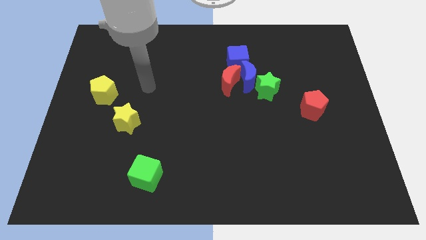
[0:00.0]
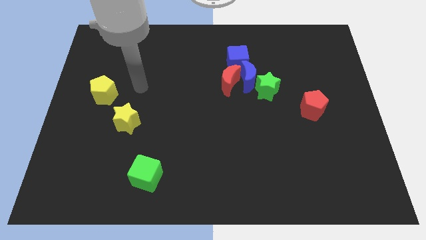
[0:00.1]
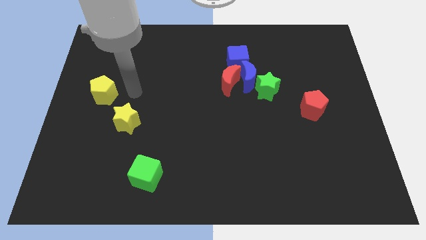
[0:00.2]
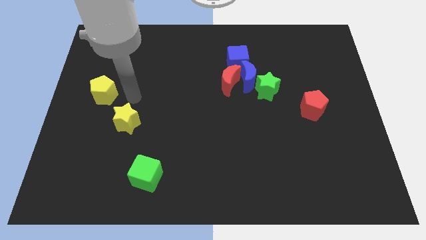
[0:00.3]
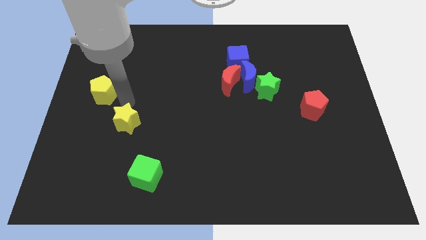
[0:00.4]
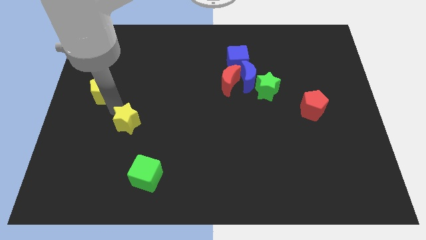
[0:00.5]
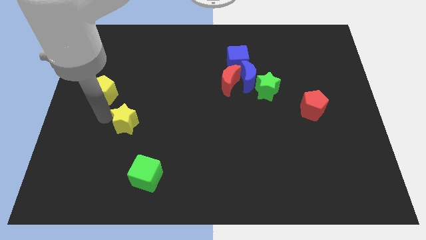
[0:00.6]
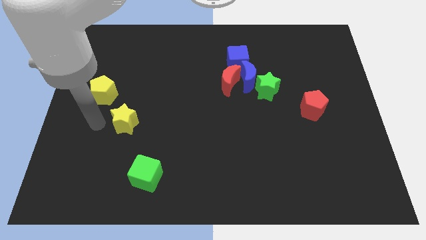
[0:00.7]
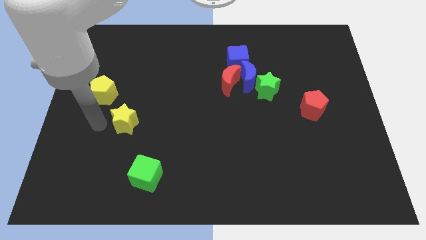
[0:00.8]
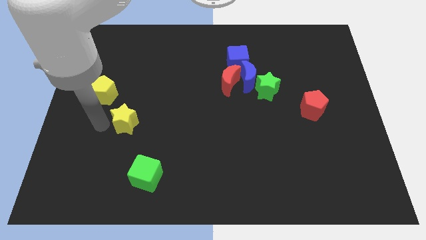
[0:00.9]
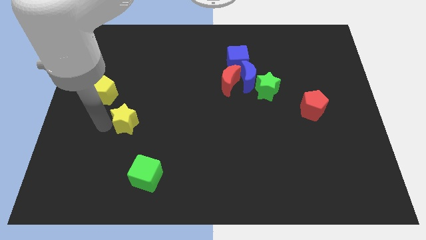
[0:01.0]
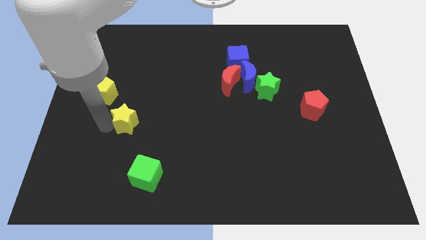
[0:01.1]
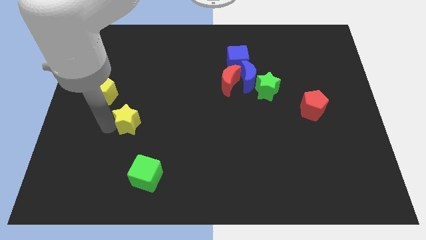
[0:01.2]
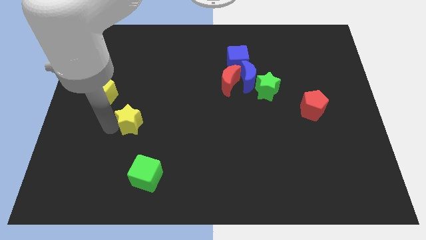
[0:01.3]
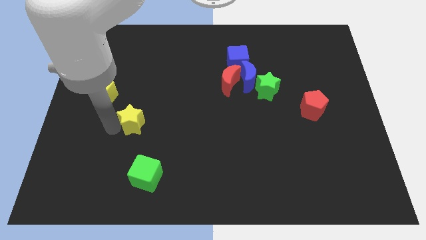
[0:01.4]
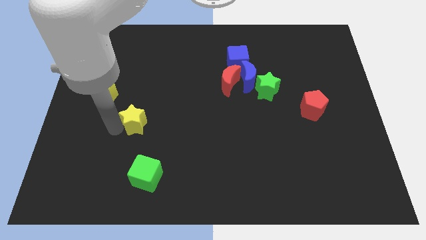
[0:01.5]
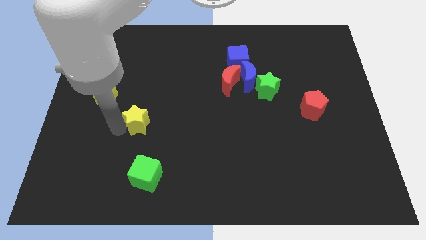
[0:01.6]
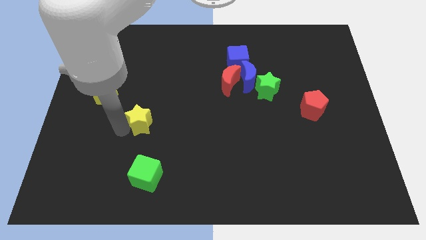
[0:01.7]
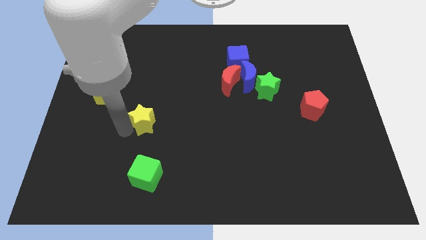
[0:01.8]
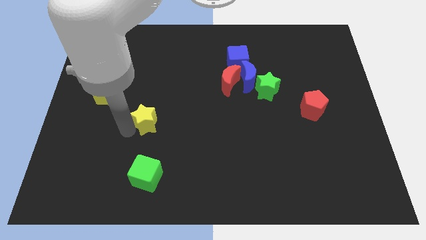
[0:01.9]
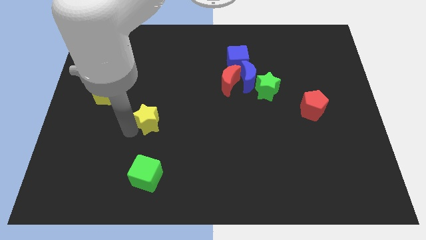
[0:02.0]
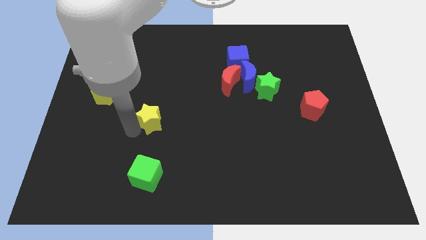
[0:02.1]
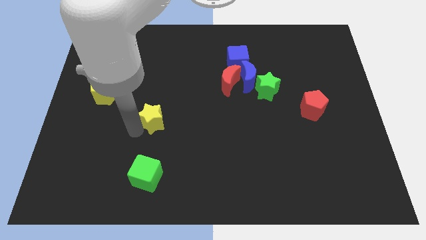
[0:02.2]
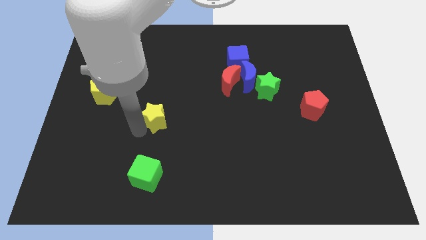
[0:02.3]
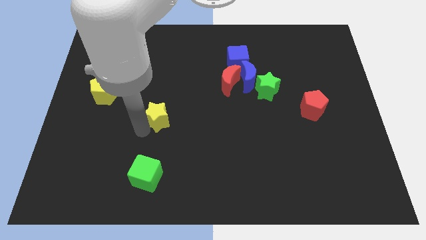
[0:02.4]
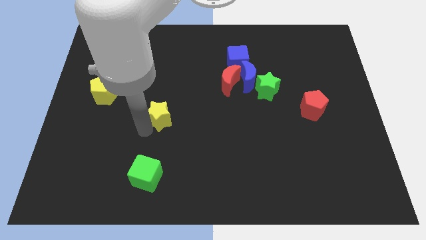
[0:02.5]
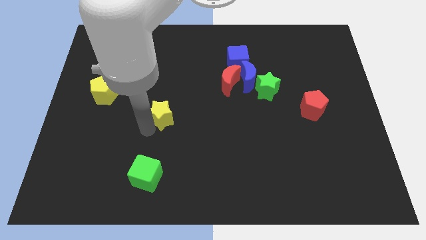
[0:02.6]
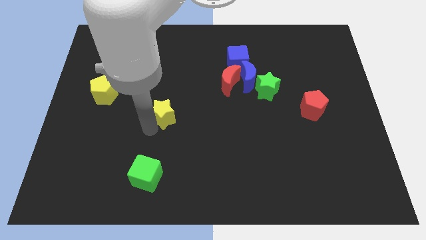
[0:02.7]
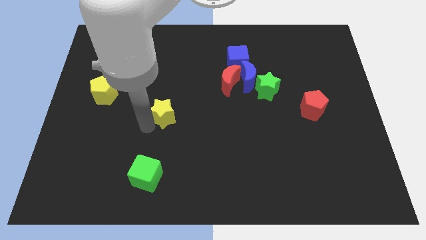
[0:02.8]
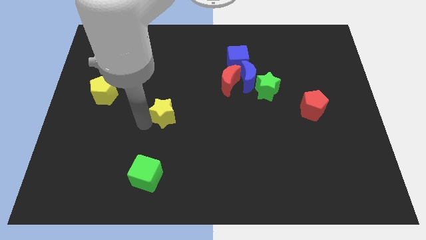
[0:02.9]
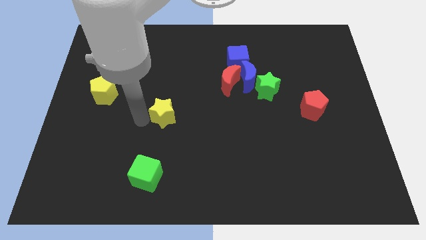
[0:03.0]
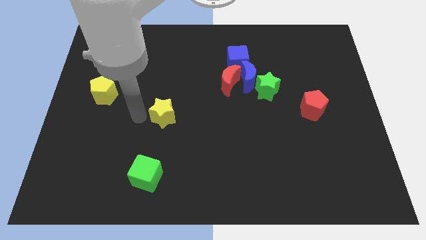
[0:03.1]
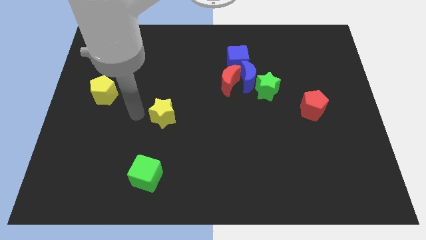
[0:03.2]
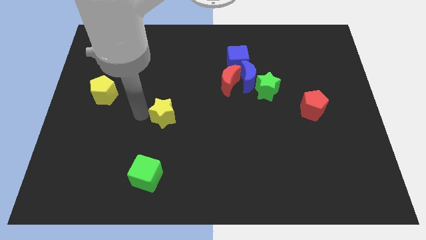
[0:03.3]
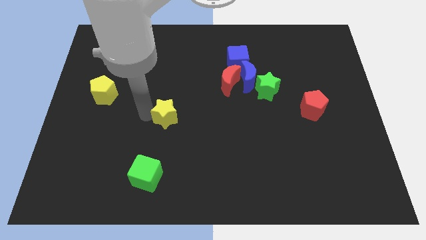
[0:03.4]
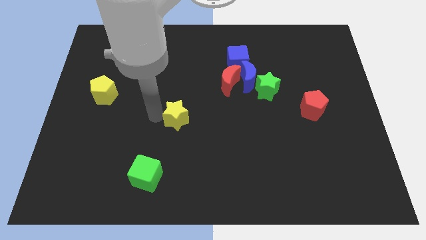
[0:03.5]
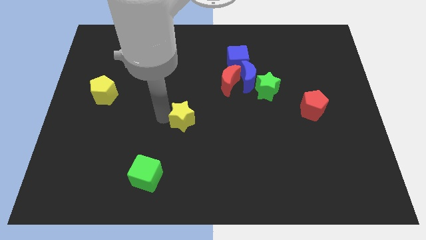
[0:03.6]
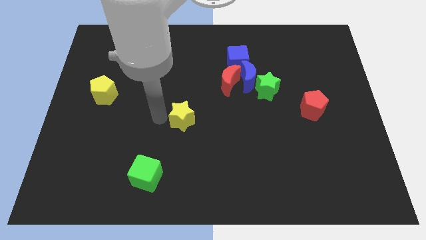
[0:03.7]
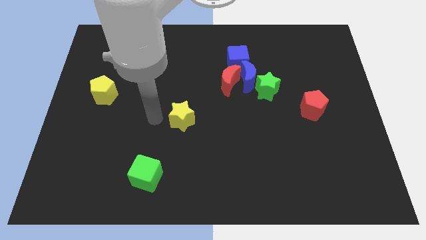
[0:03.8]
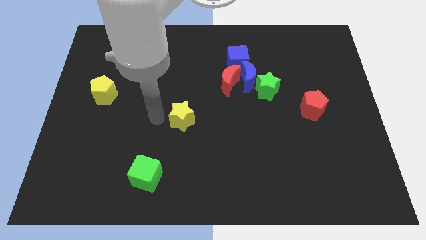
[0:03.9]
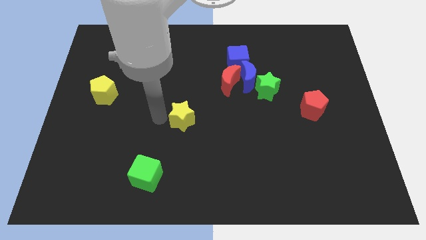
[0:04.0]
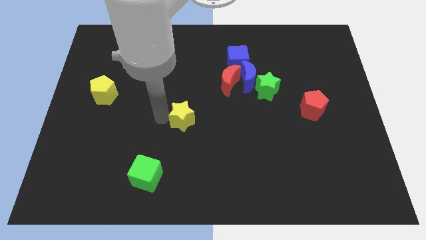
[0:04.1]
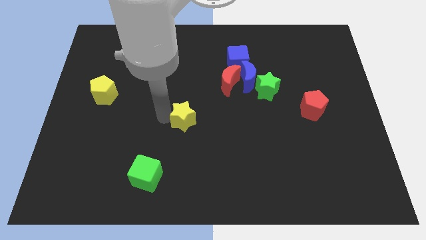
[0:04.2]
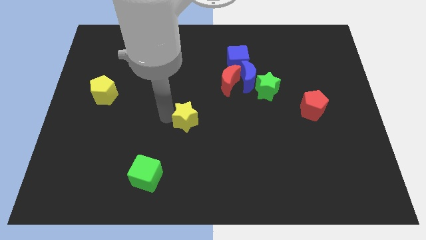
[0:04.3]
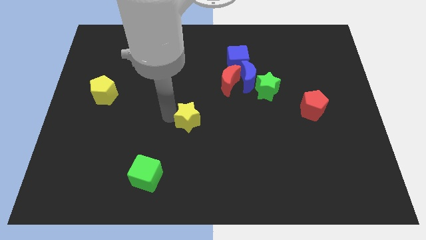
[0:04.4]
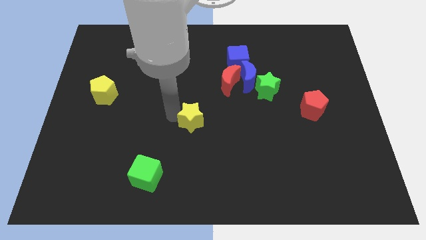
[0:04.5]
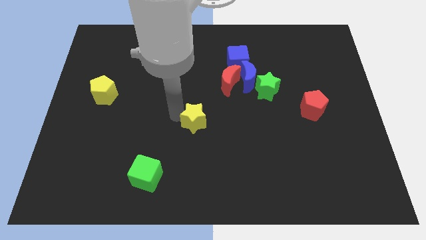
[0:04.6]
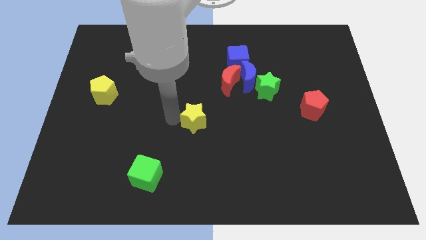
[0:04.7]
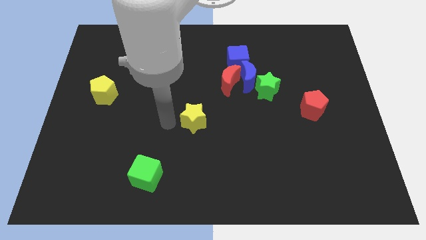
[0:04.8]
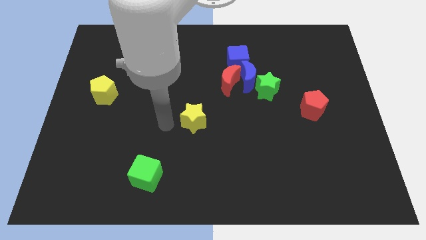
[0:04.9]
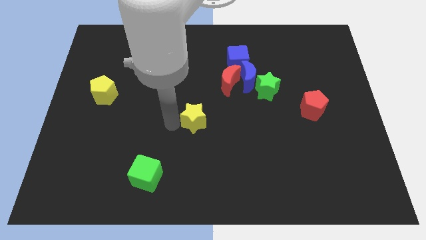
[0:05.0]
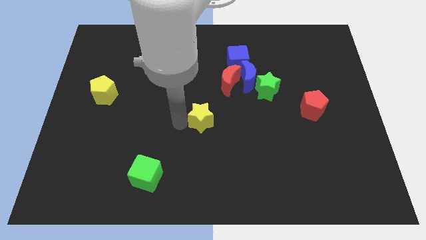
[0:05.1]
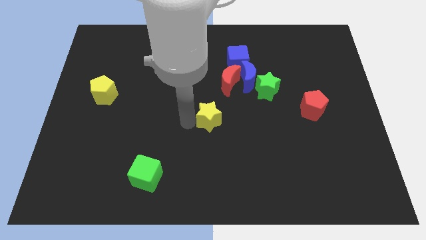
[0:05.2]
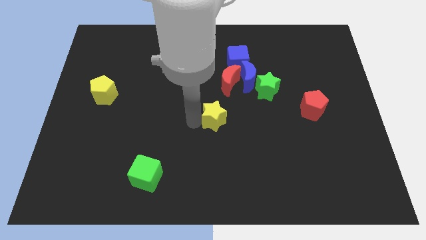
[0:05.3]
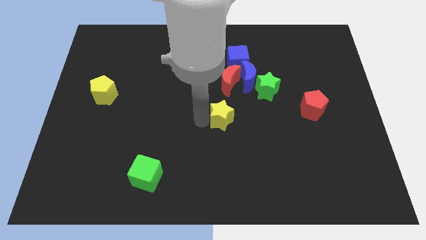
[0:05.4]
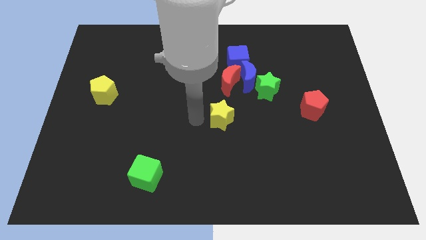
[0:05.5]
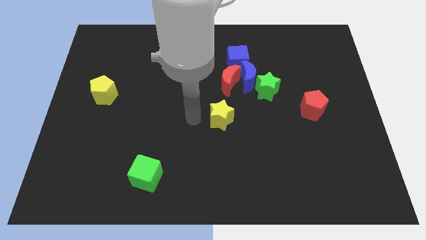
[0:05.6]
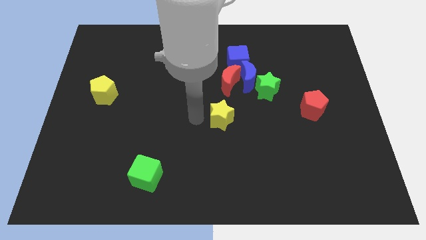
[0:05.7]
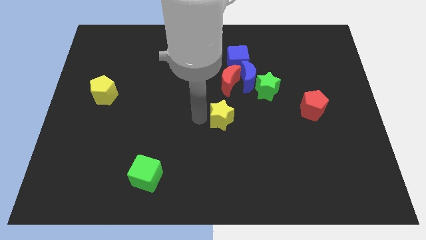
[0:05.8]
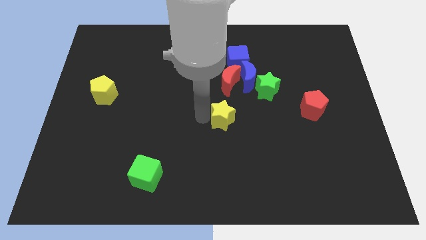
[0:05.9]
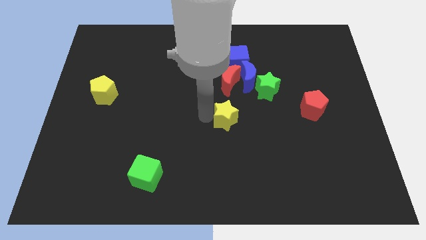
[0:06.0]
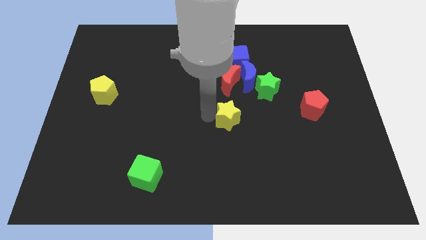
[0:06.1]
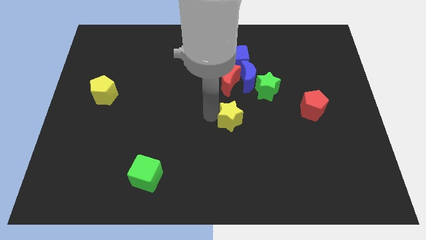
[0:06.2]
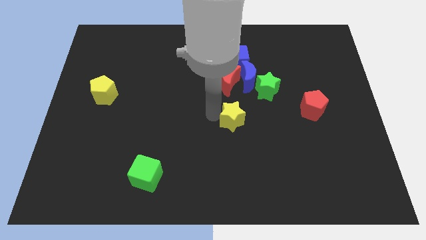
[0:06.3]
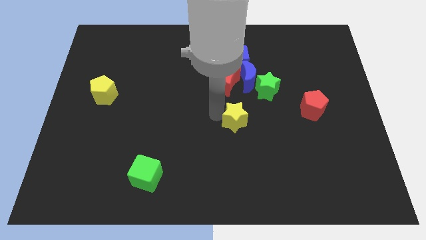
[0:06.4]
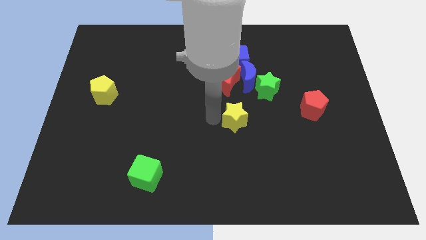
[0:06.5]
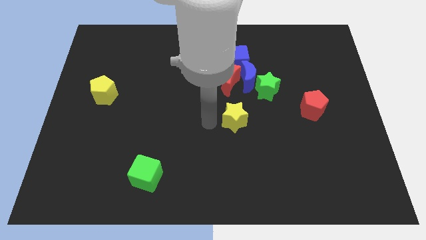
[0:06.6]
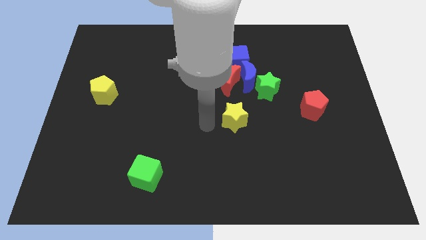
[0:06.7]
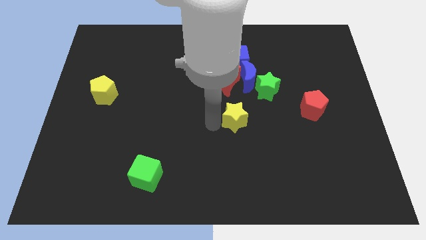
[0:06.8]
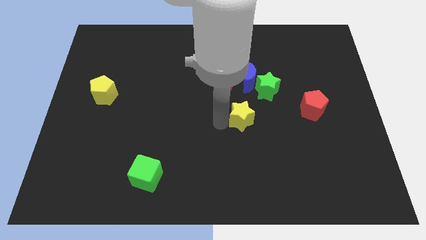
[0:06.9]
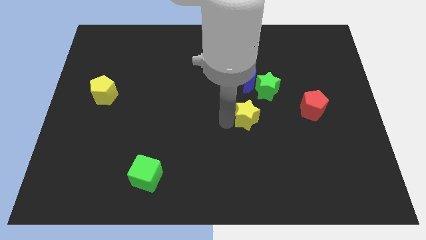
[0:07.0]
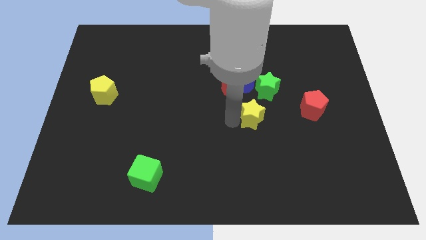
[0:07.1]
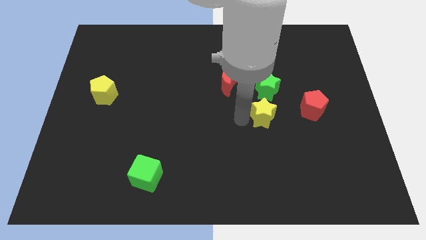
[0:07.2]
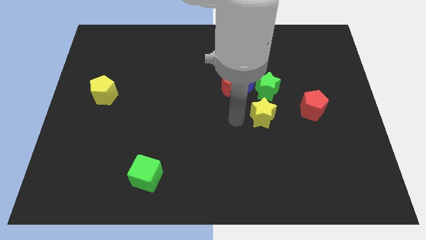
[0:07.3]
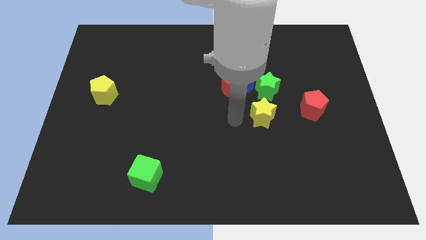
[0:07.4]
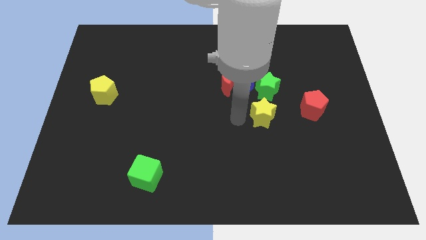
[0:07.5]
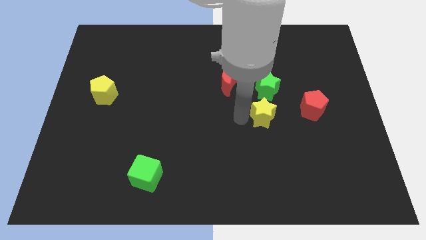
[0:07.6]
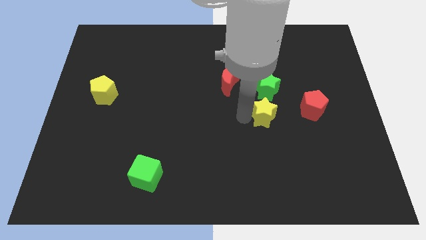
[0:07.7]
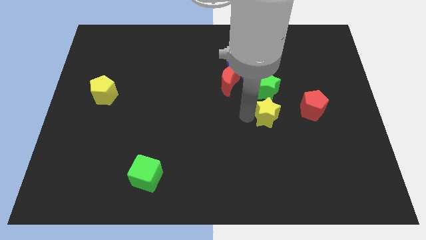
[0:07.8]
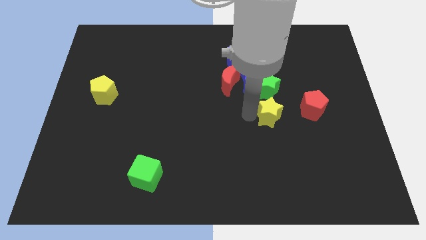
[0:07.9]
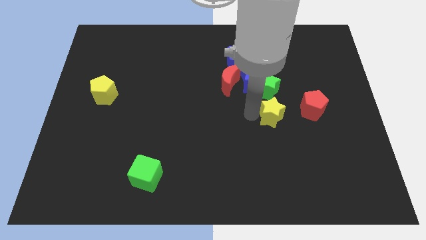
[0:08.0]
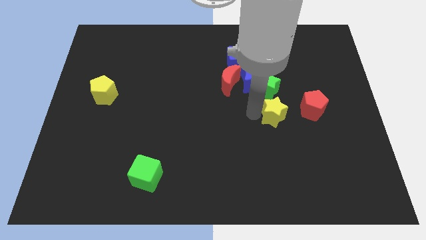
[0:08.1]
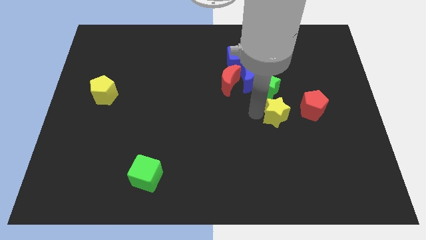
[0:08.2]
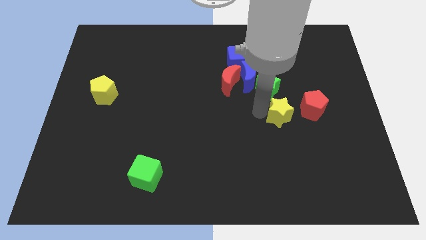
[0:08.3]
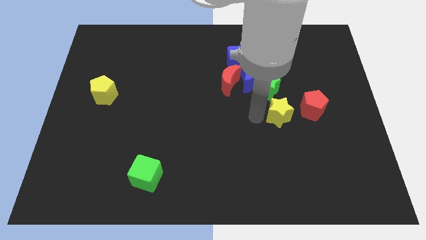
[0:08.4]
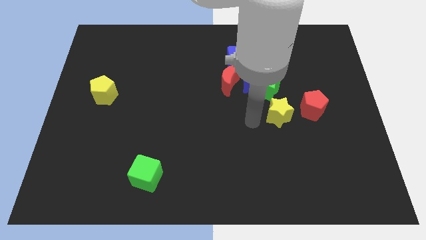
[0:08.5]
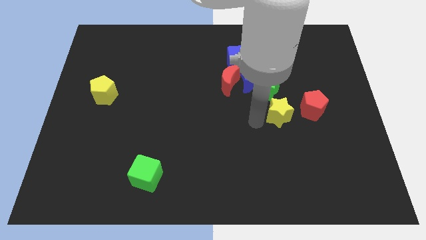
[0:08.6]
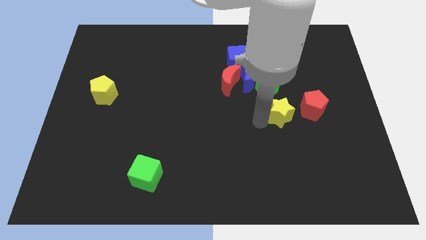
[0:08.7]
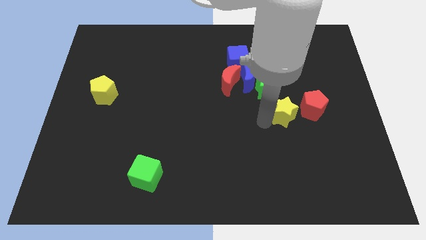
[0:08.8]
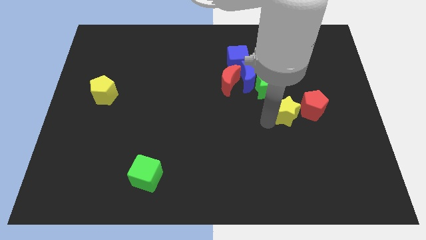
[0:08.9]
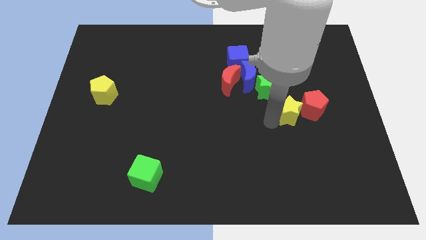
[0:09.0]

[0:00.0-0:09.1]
put the yellow star towards the red pentagon
